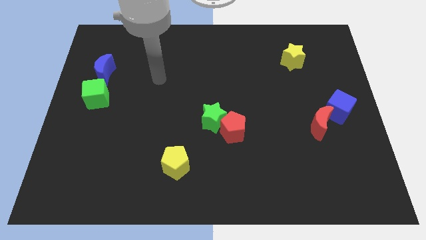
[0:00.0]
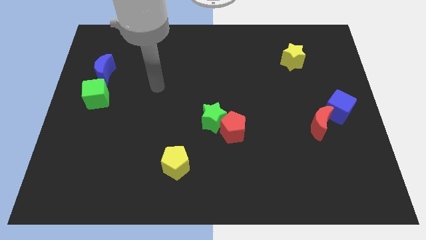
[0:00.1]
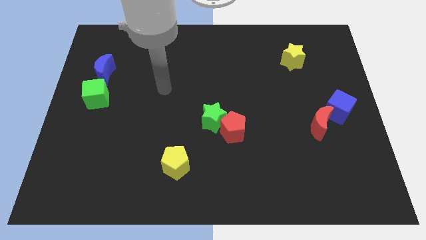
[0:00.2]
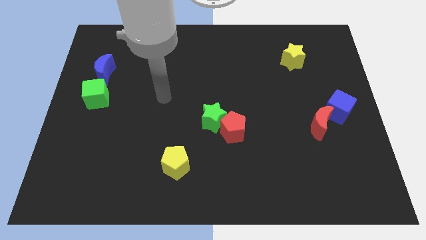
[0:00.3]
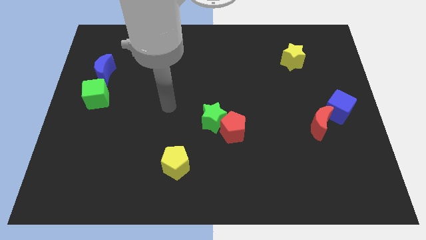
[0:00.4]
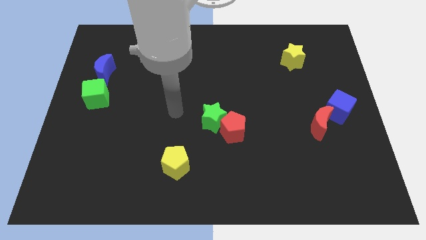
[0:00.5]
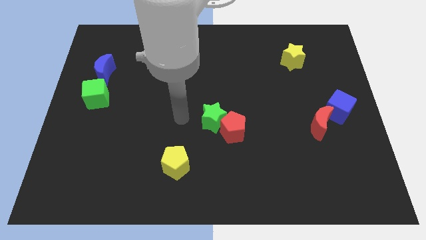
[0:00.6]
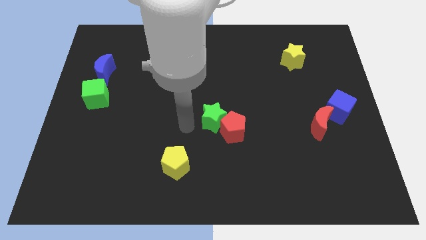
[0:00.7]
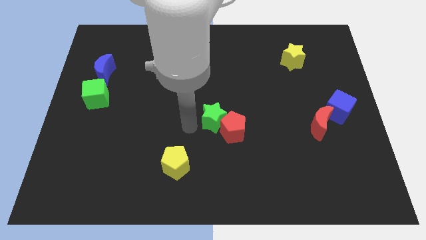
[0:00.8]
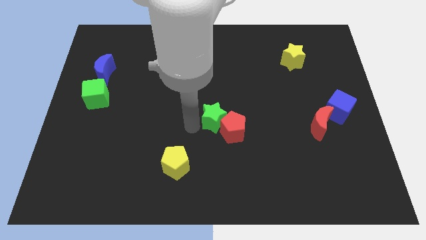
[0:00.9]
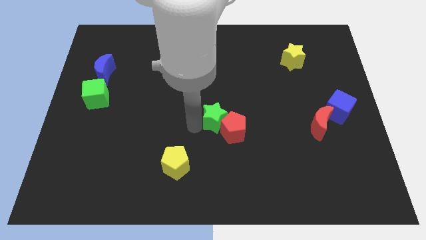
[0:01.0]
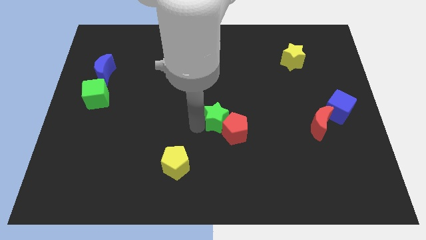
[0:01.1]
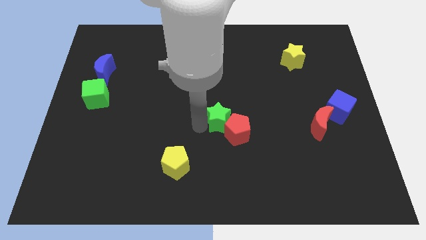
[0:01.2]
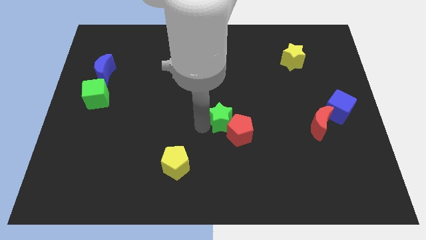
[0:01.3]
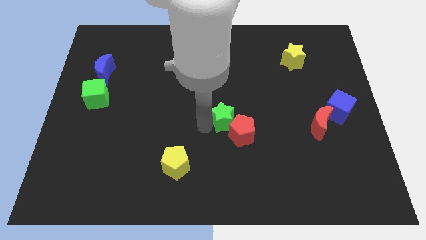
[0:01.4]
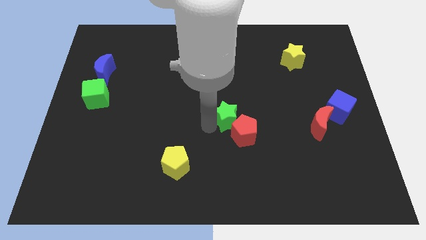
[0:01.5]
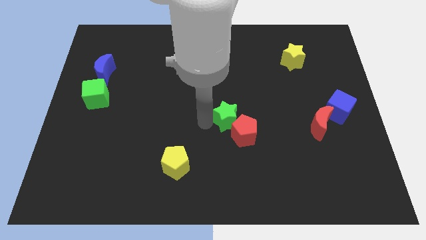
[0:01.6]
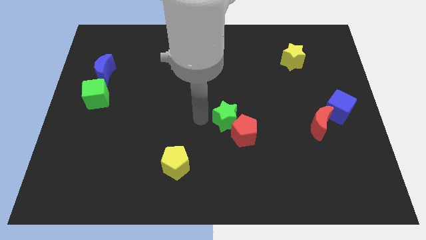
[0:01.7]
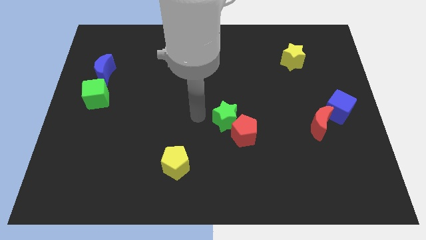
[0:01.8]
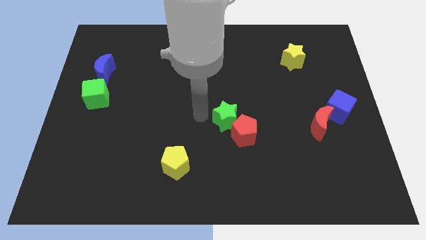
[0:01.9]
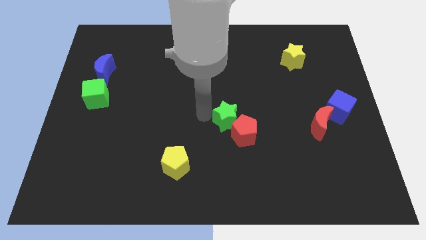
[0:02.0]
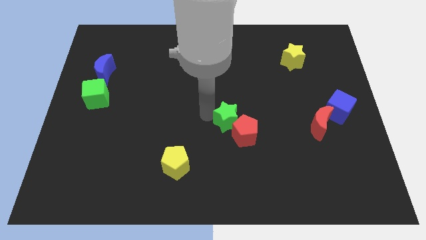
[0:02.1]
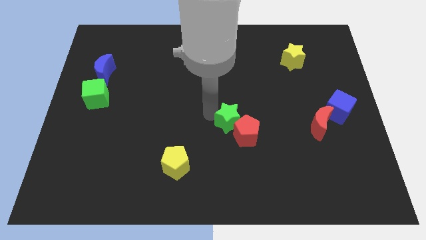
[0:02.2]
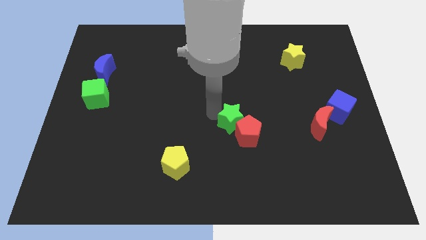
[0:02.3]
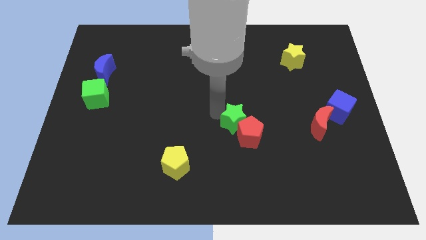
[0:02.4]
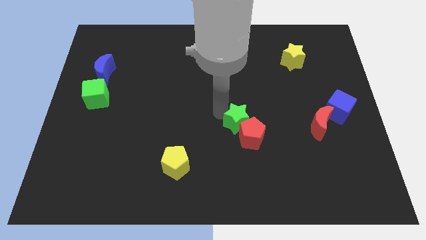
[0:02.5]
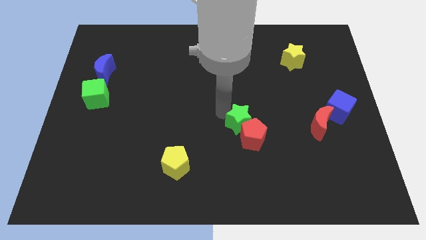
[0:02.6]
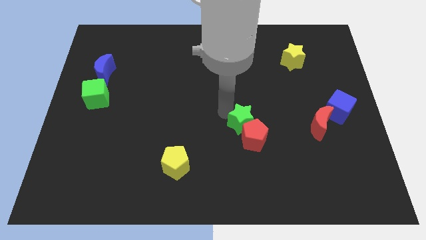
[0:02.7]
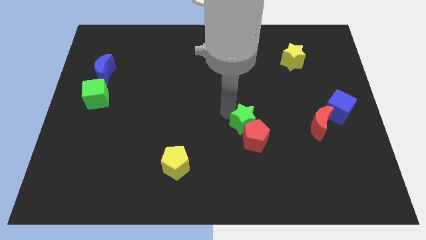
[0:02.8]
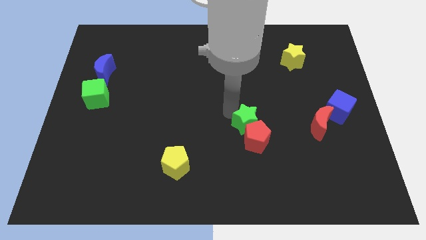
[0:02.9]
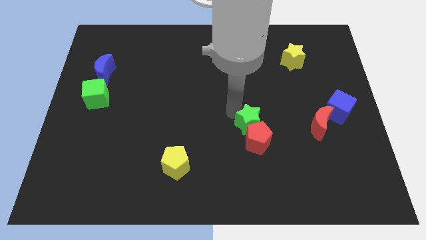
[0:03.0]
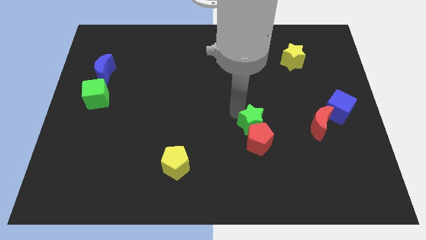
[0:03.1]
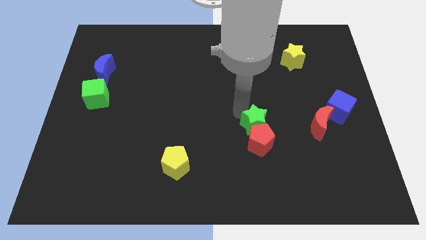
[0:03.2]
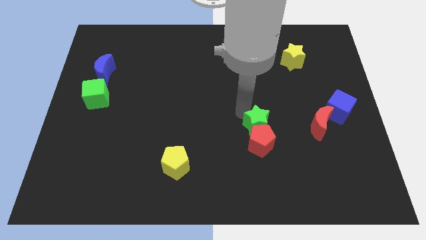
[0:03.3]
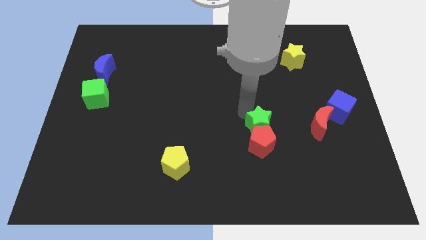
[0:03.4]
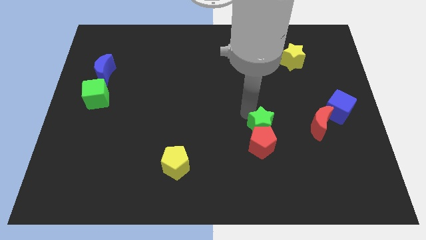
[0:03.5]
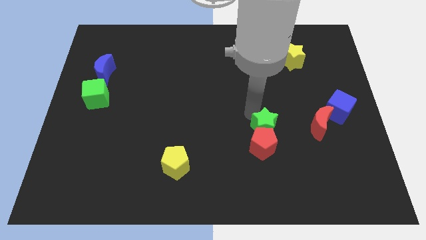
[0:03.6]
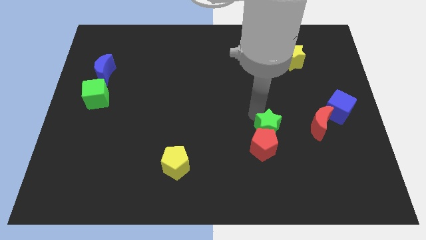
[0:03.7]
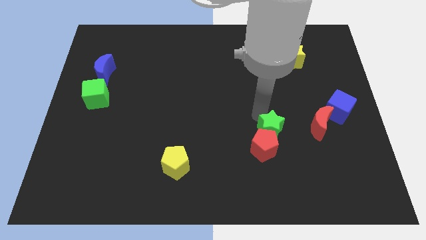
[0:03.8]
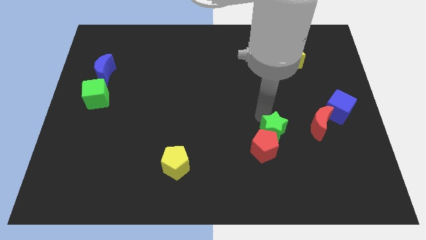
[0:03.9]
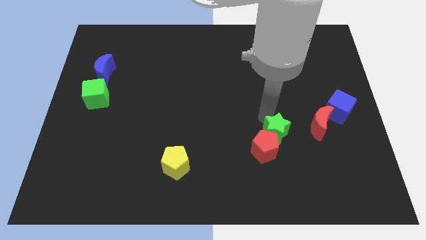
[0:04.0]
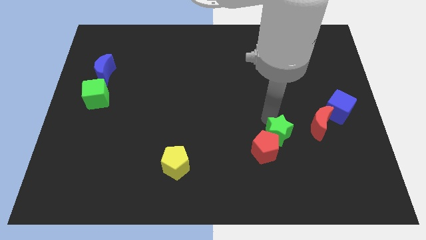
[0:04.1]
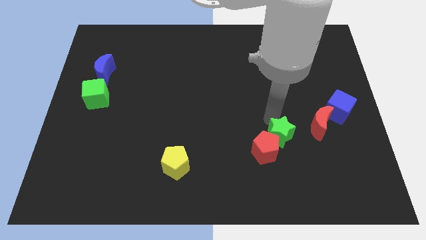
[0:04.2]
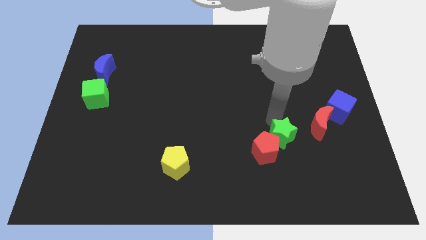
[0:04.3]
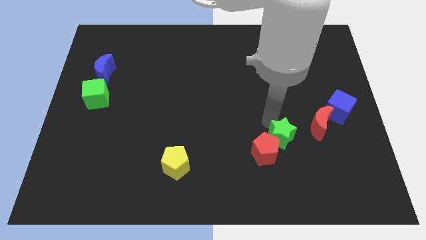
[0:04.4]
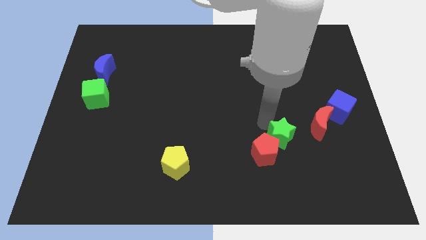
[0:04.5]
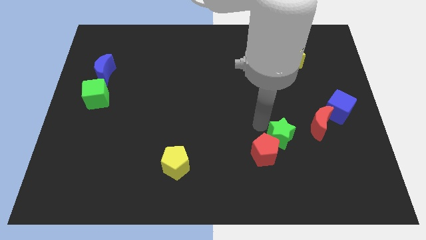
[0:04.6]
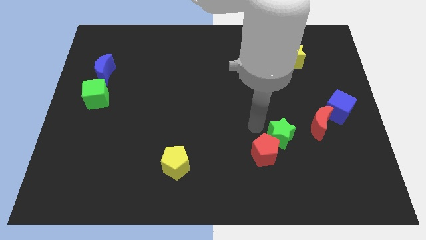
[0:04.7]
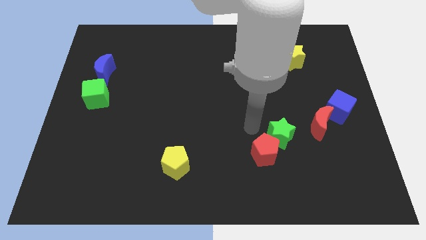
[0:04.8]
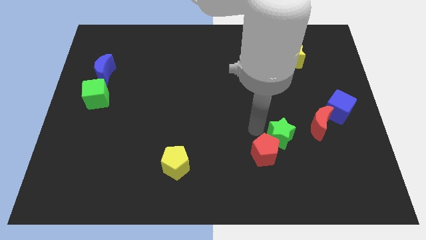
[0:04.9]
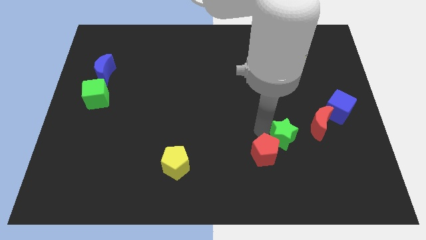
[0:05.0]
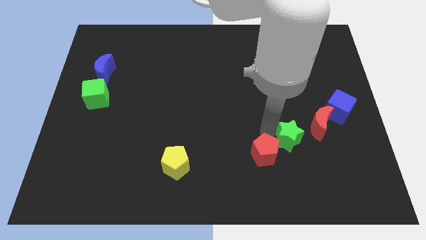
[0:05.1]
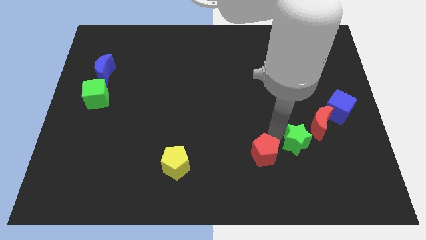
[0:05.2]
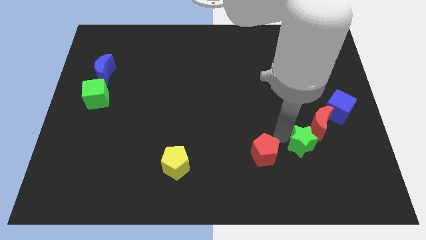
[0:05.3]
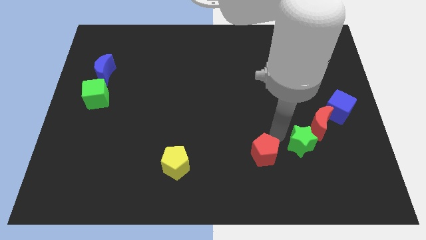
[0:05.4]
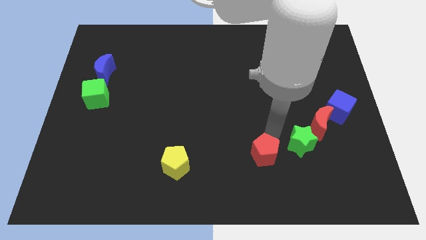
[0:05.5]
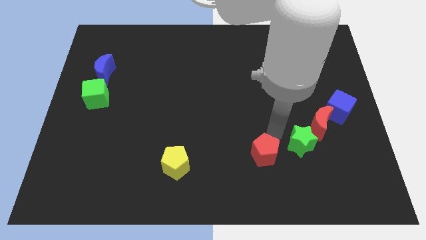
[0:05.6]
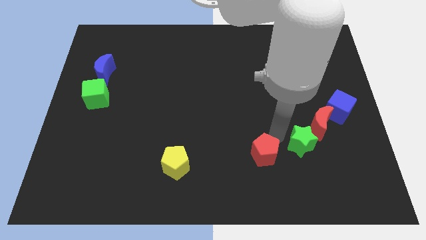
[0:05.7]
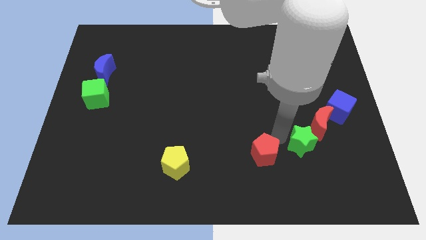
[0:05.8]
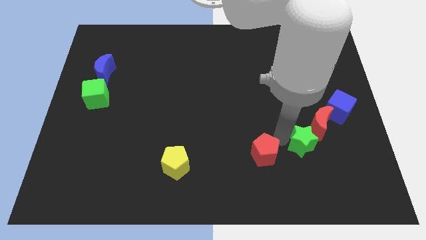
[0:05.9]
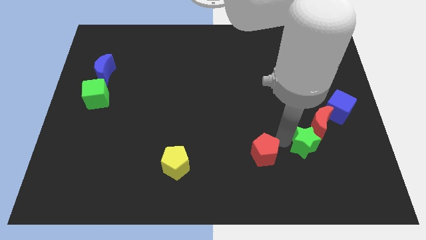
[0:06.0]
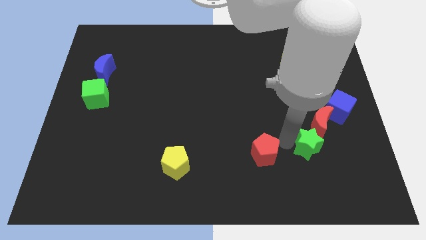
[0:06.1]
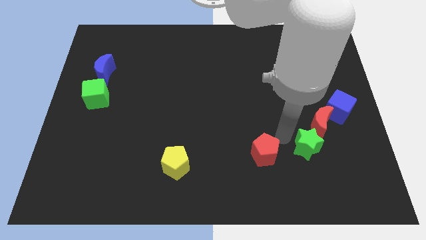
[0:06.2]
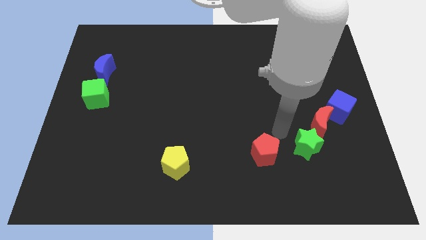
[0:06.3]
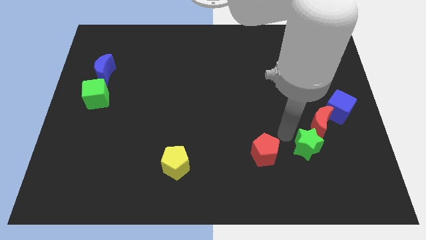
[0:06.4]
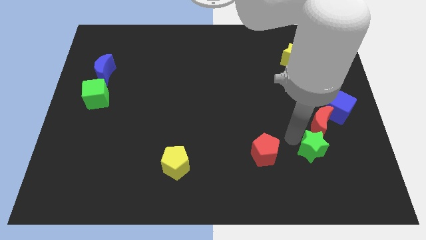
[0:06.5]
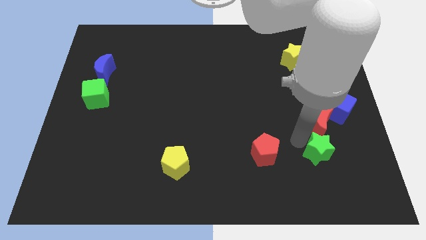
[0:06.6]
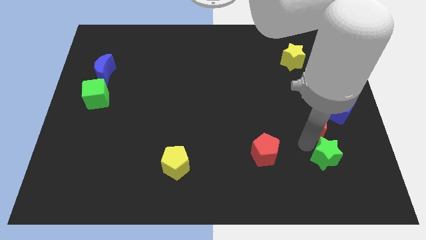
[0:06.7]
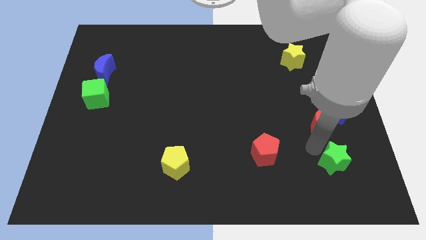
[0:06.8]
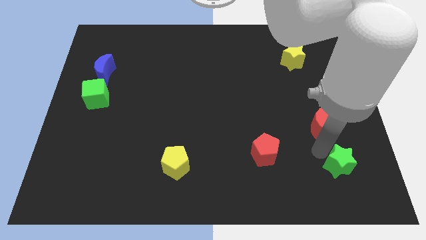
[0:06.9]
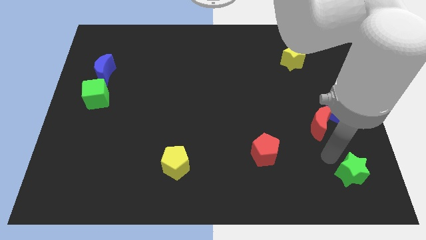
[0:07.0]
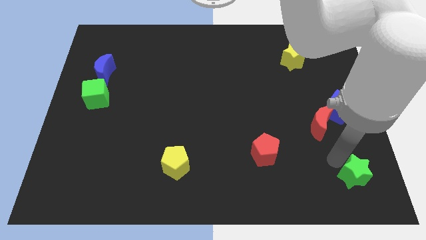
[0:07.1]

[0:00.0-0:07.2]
slide the green star to the bottom right
